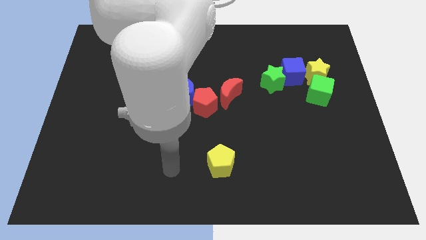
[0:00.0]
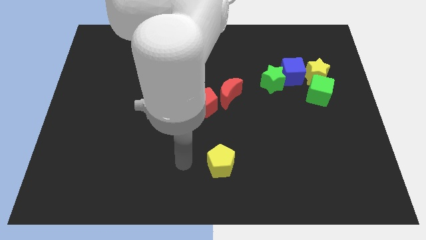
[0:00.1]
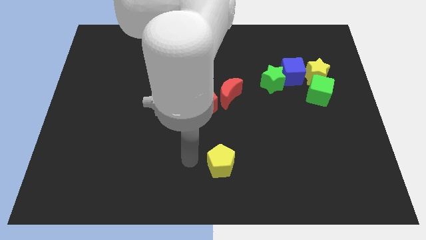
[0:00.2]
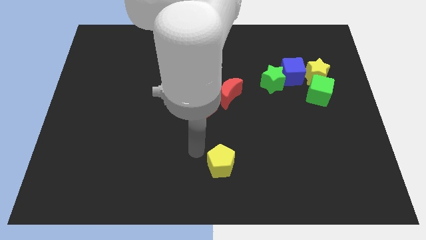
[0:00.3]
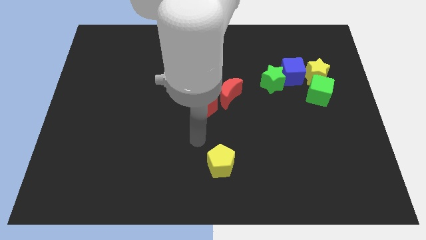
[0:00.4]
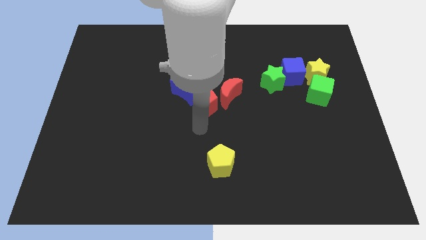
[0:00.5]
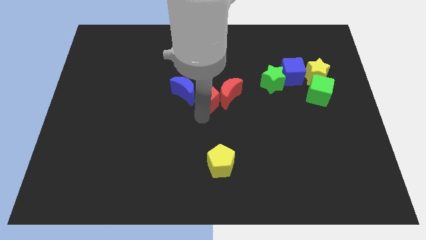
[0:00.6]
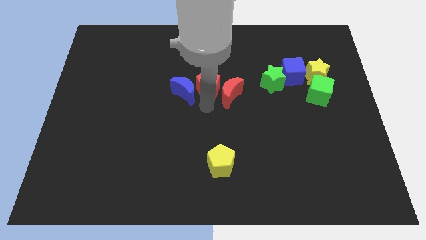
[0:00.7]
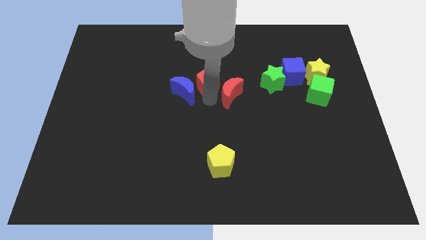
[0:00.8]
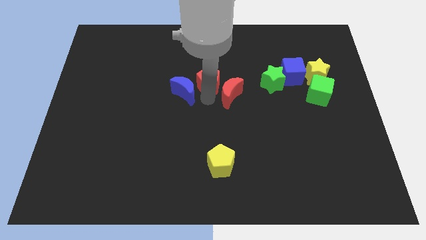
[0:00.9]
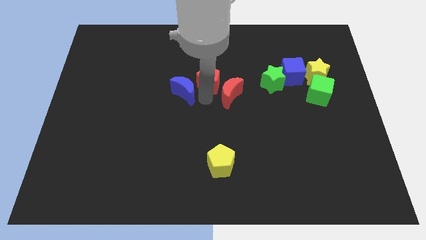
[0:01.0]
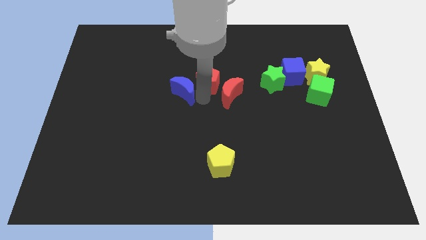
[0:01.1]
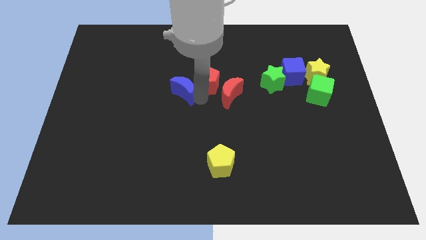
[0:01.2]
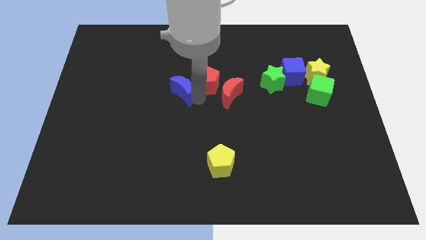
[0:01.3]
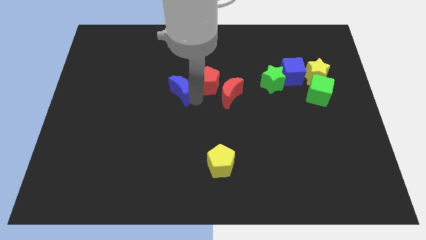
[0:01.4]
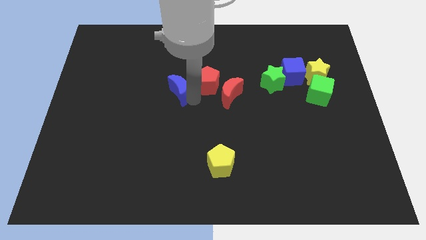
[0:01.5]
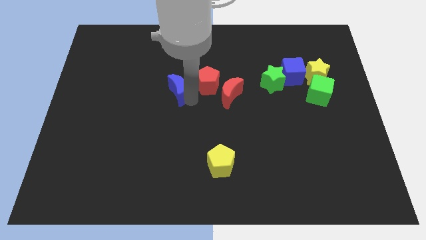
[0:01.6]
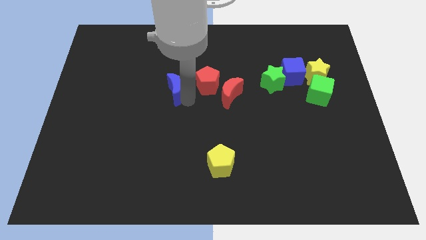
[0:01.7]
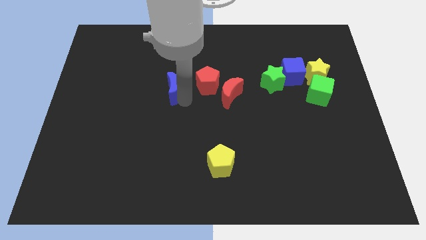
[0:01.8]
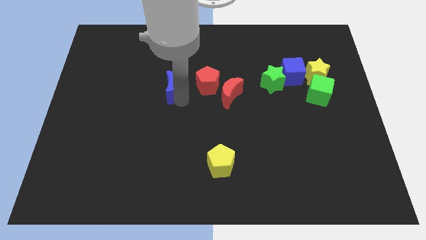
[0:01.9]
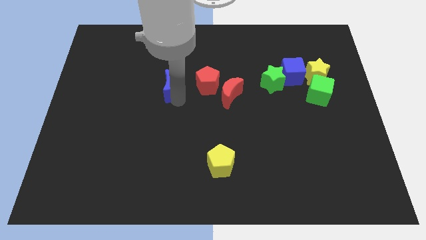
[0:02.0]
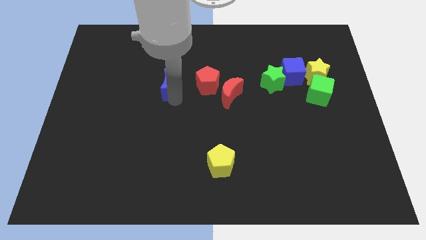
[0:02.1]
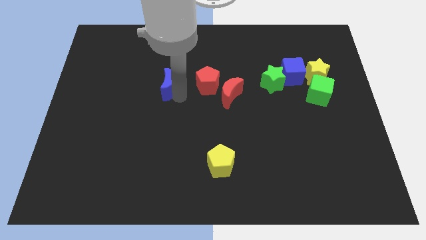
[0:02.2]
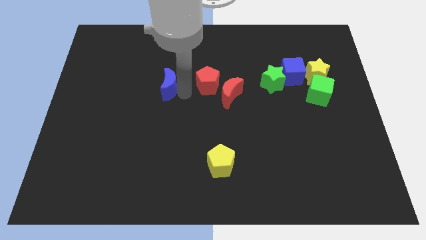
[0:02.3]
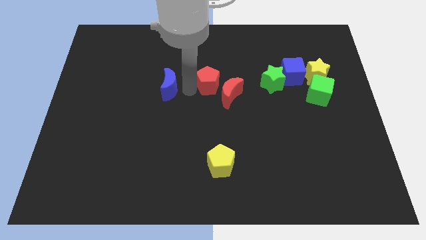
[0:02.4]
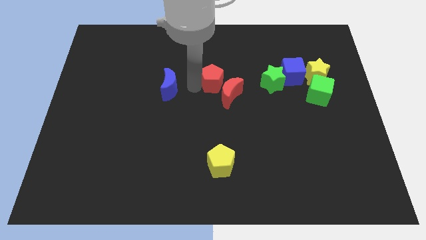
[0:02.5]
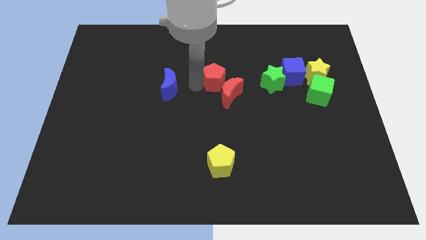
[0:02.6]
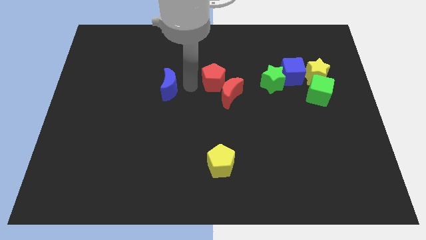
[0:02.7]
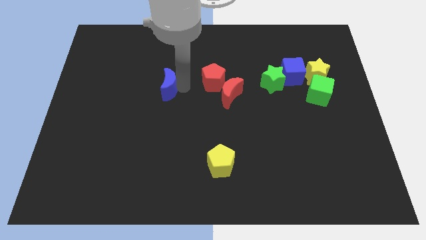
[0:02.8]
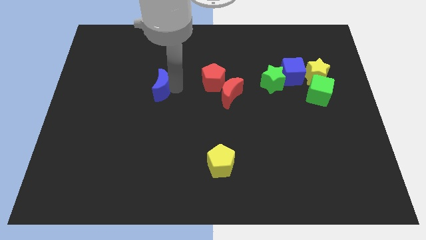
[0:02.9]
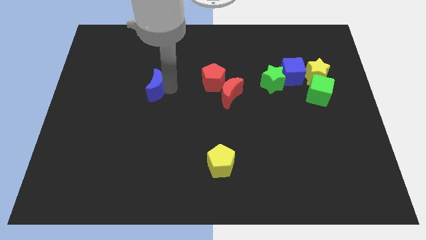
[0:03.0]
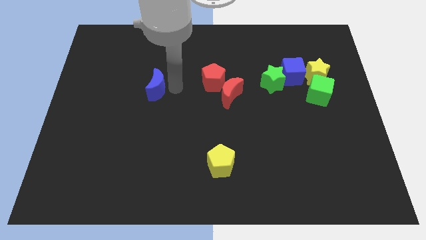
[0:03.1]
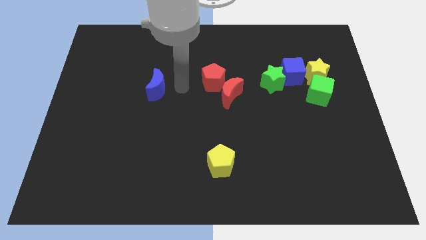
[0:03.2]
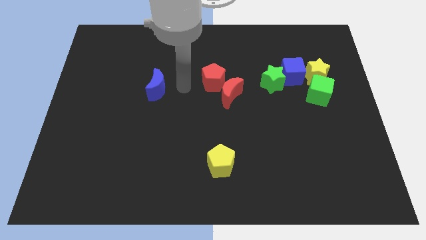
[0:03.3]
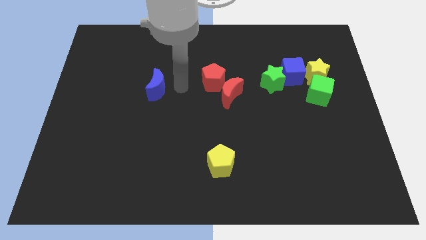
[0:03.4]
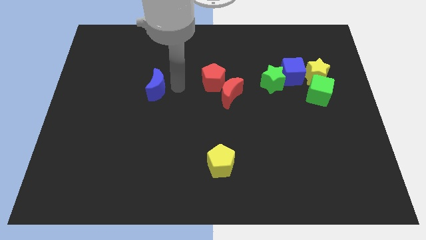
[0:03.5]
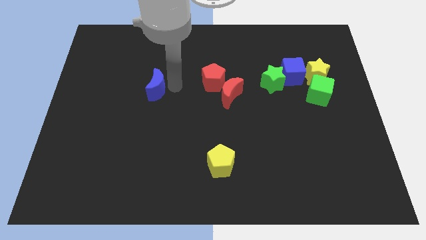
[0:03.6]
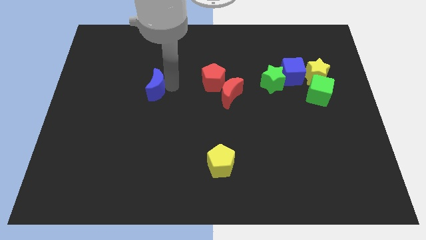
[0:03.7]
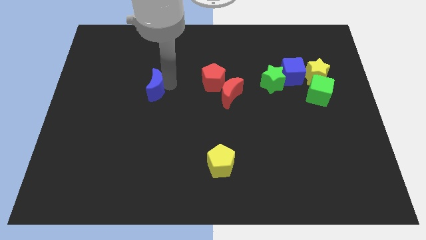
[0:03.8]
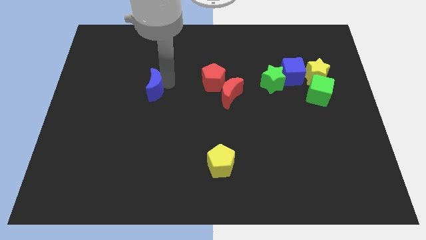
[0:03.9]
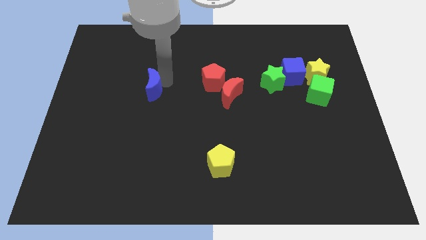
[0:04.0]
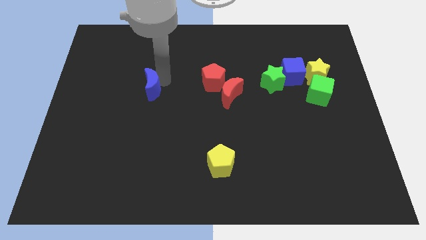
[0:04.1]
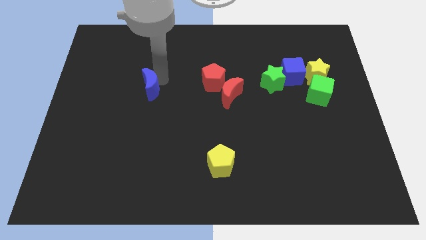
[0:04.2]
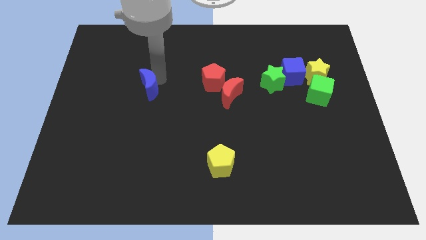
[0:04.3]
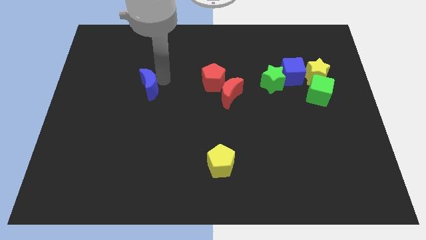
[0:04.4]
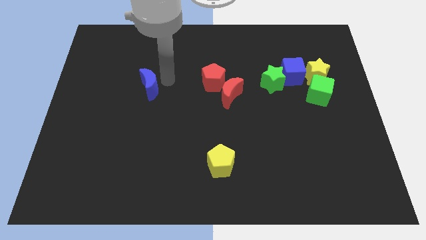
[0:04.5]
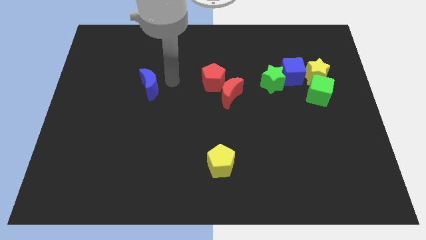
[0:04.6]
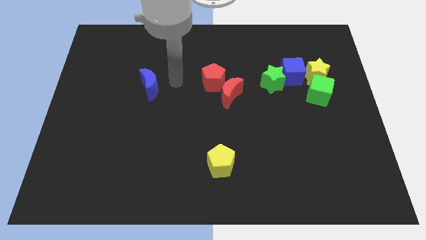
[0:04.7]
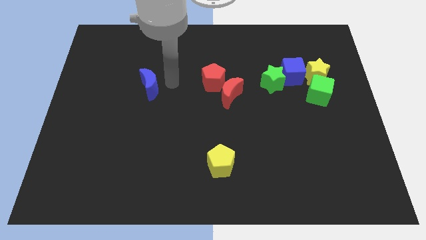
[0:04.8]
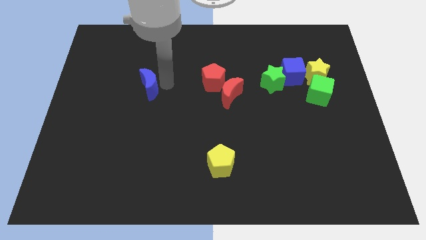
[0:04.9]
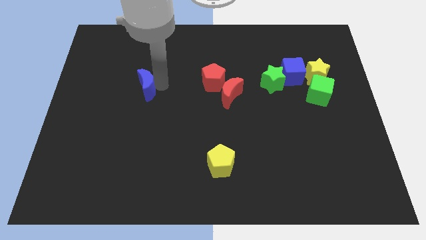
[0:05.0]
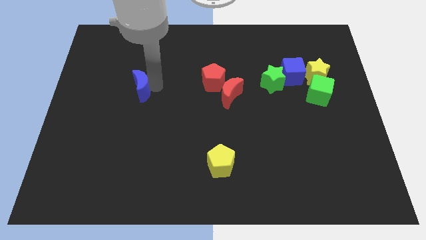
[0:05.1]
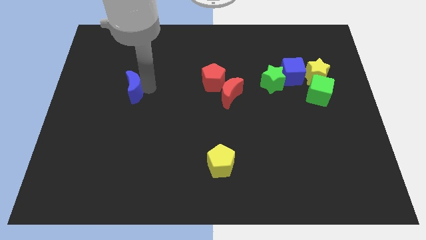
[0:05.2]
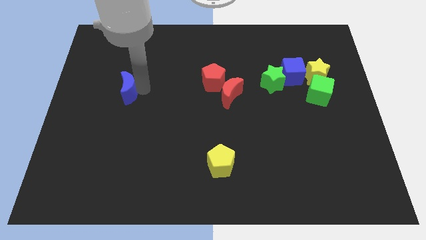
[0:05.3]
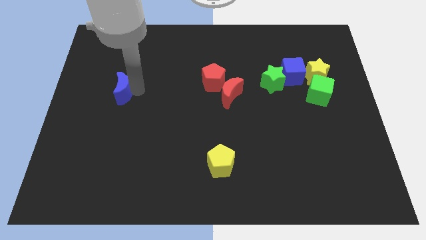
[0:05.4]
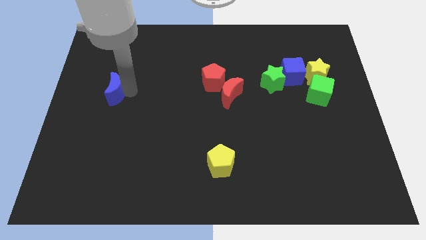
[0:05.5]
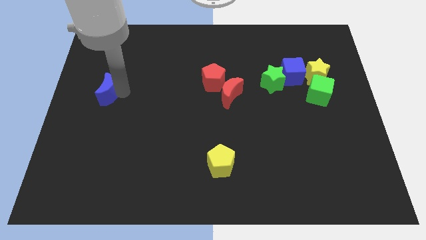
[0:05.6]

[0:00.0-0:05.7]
slide the blue moon to the left side

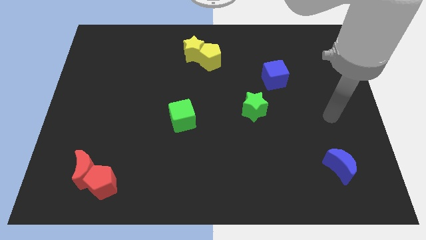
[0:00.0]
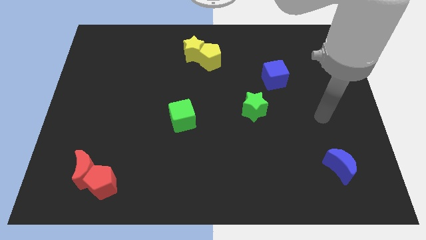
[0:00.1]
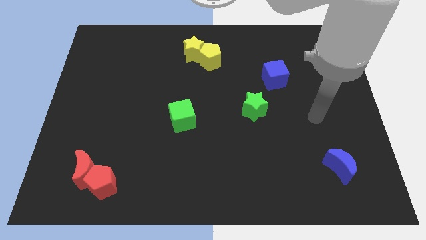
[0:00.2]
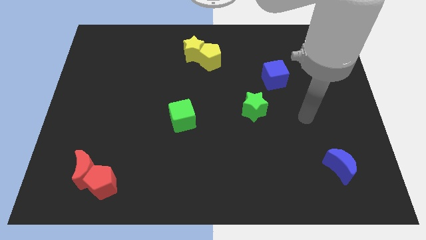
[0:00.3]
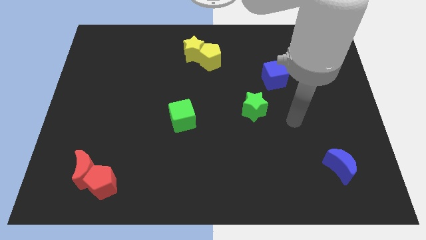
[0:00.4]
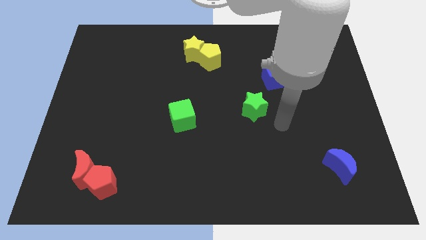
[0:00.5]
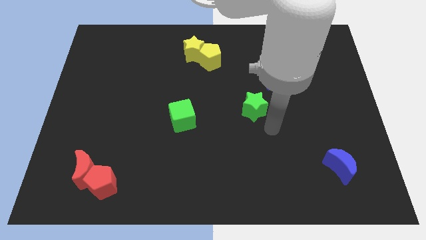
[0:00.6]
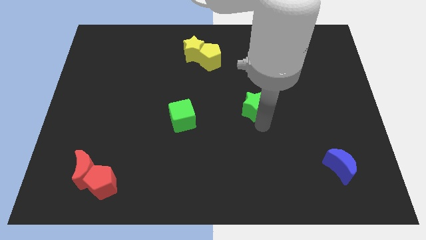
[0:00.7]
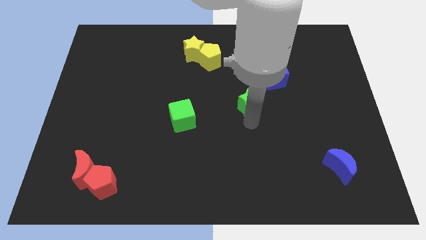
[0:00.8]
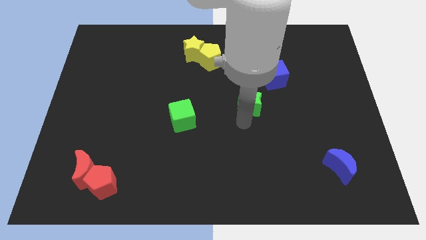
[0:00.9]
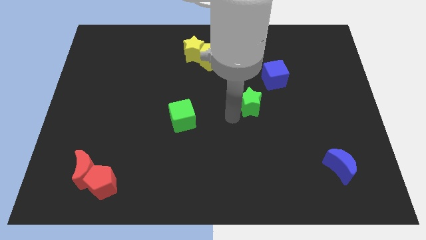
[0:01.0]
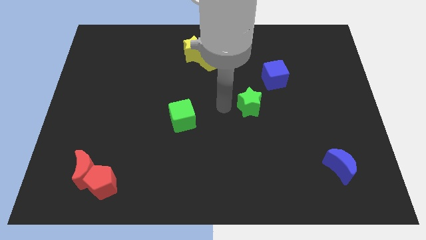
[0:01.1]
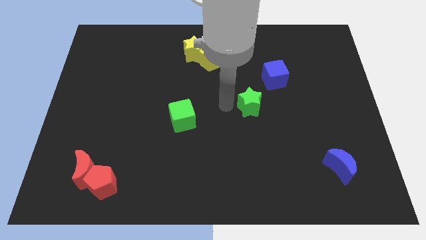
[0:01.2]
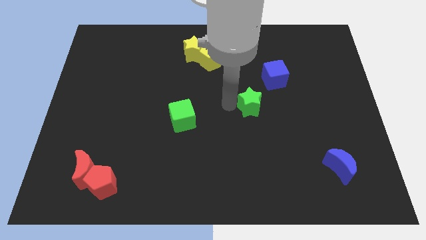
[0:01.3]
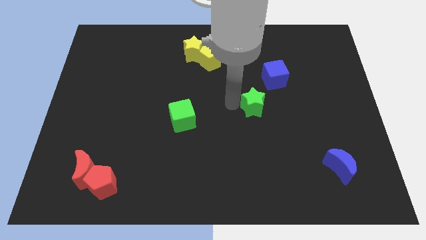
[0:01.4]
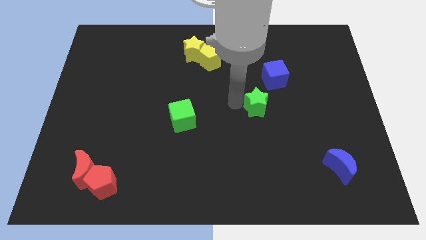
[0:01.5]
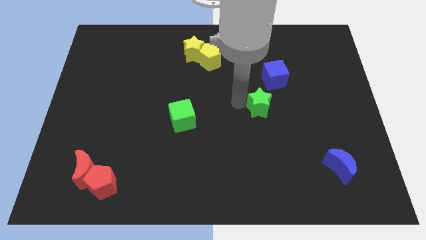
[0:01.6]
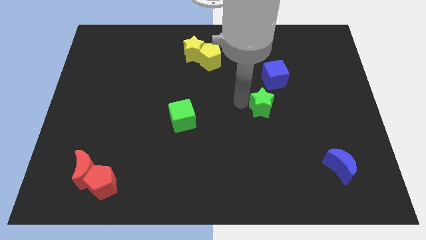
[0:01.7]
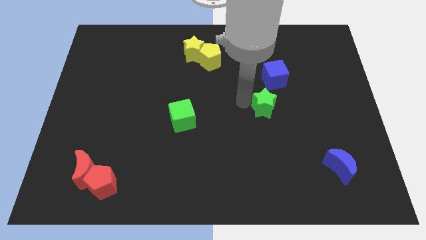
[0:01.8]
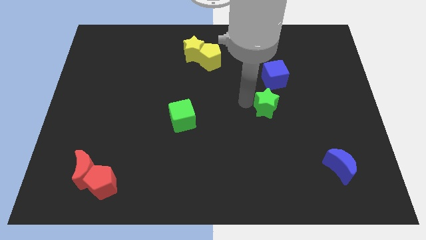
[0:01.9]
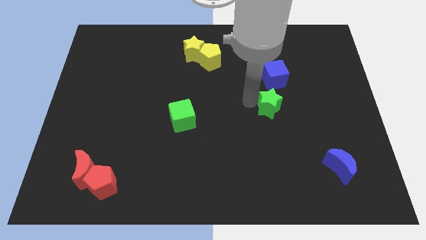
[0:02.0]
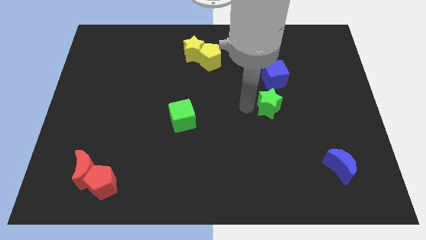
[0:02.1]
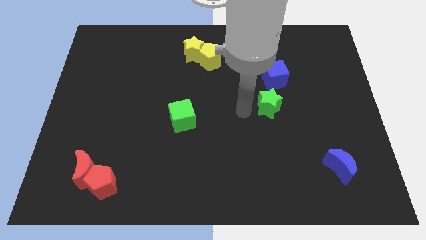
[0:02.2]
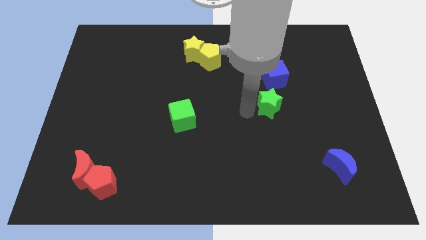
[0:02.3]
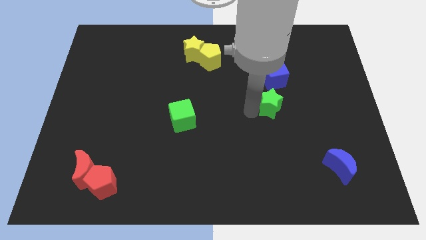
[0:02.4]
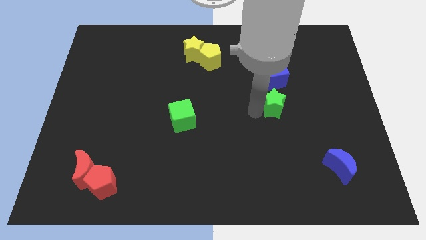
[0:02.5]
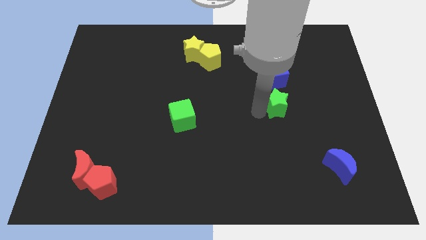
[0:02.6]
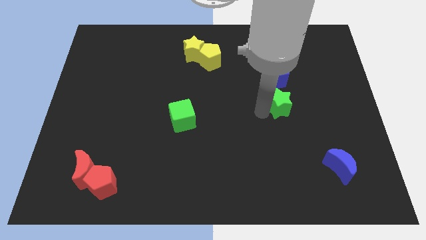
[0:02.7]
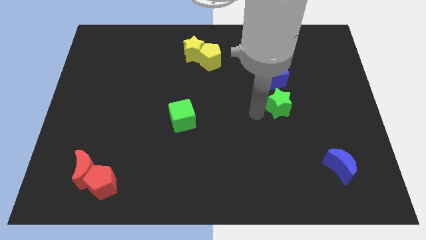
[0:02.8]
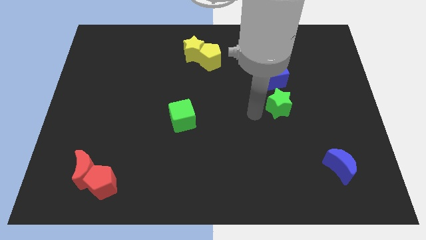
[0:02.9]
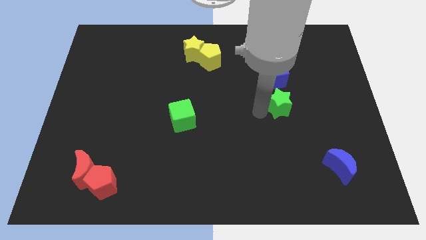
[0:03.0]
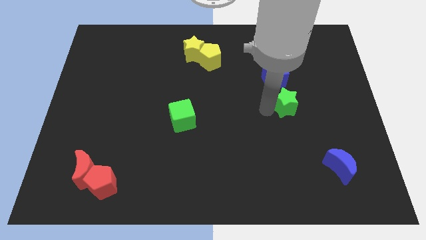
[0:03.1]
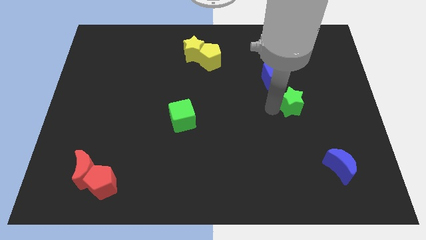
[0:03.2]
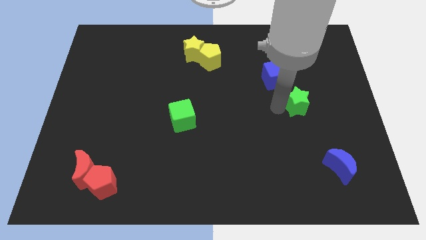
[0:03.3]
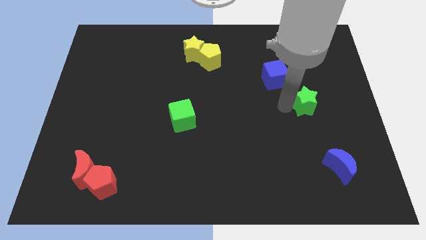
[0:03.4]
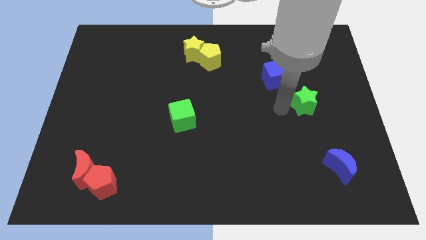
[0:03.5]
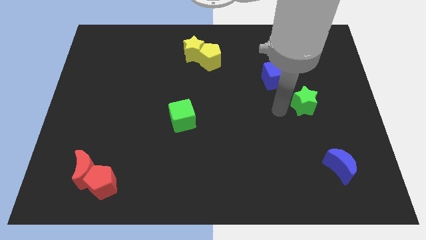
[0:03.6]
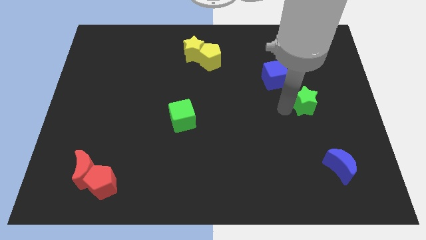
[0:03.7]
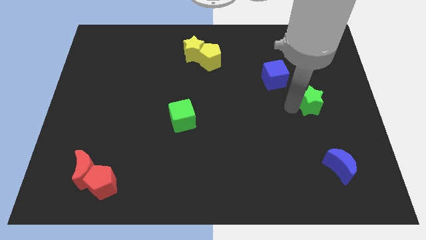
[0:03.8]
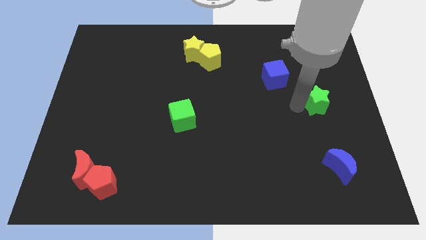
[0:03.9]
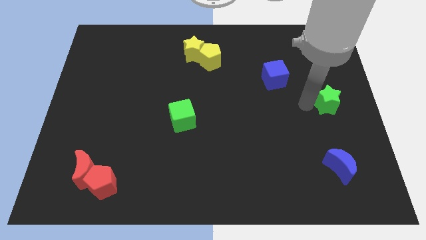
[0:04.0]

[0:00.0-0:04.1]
slide the green star to the center right
